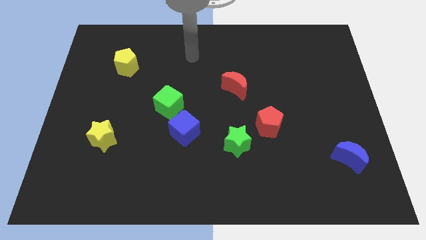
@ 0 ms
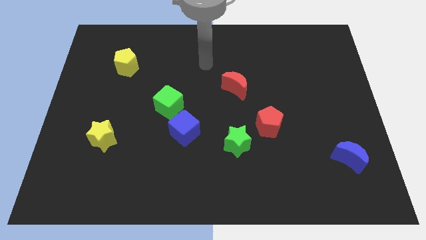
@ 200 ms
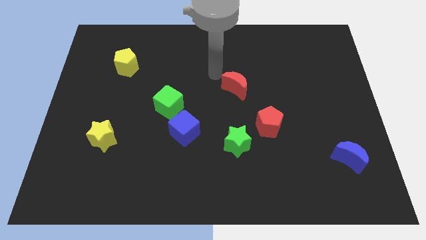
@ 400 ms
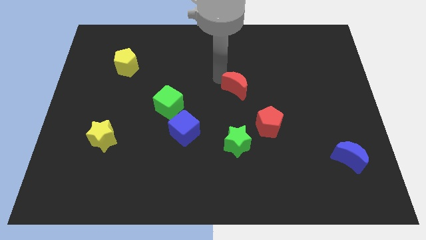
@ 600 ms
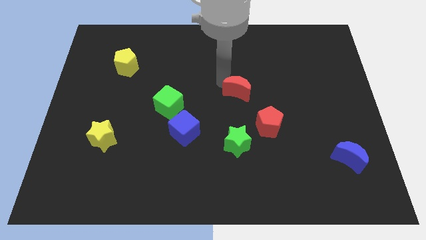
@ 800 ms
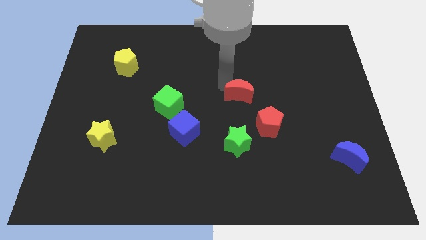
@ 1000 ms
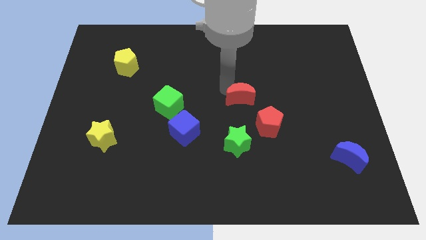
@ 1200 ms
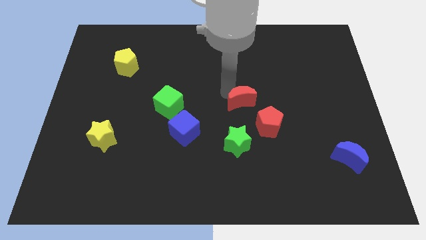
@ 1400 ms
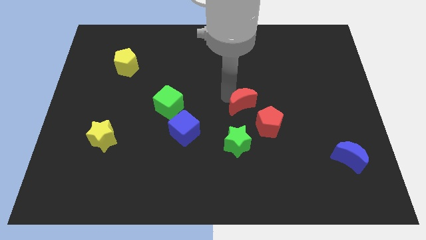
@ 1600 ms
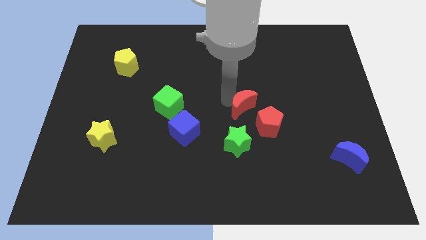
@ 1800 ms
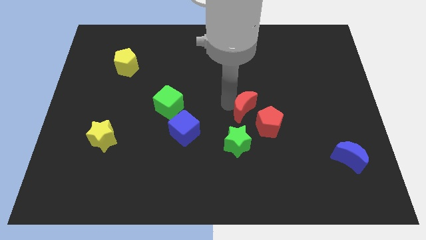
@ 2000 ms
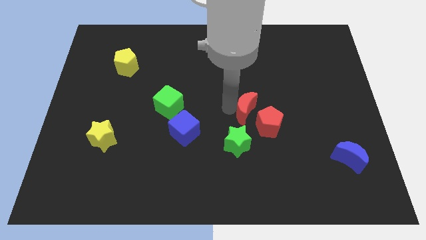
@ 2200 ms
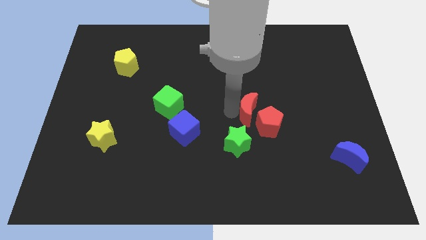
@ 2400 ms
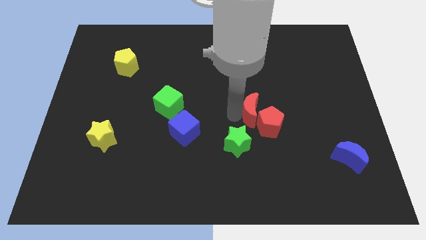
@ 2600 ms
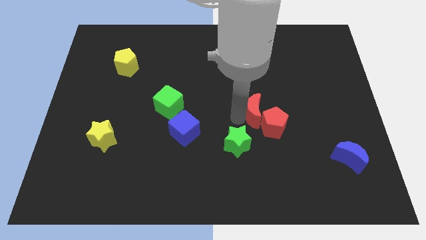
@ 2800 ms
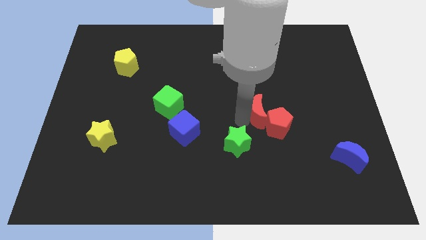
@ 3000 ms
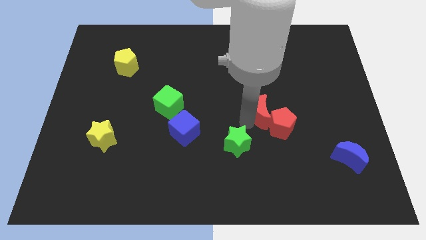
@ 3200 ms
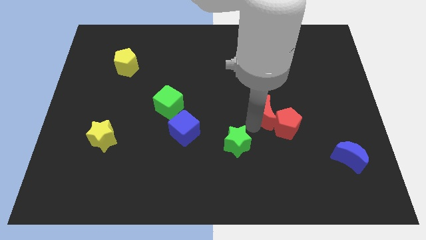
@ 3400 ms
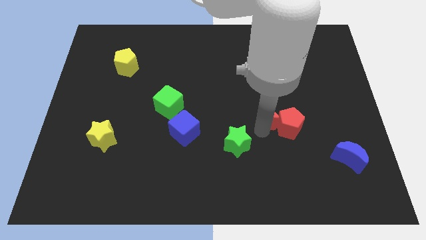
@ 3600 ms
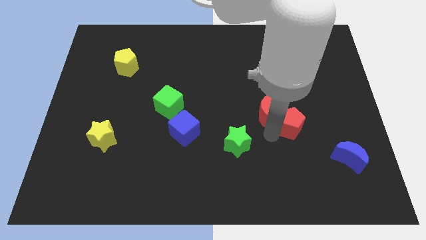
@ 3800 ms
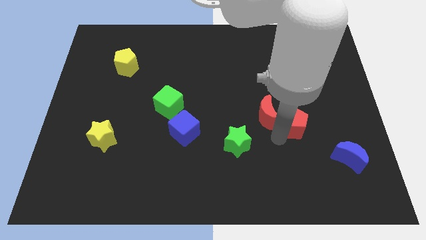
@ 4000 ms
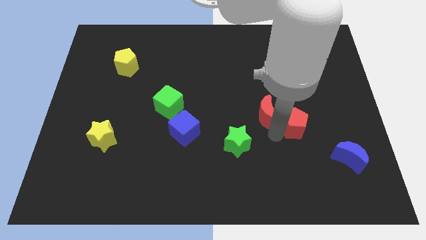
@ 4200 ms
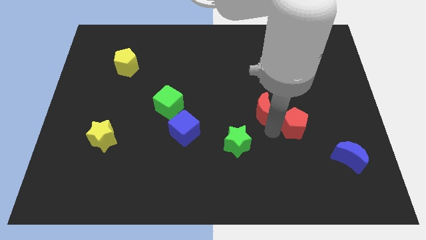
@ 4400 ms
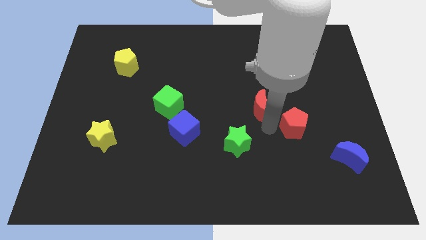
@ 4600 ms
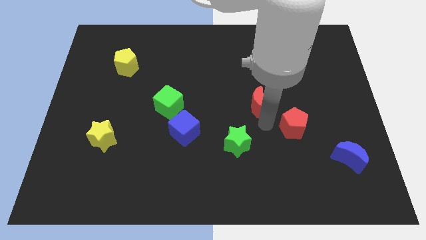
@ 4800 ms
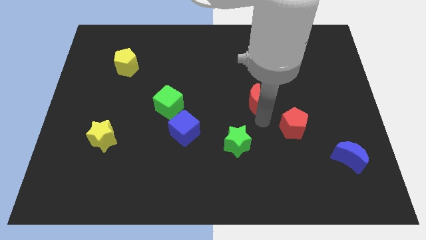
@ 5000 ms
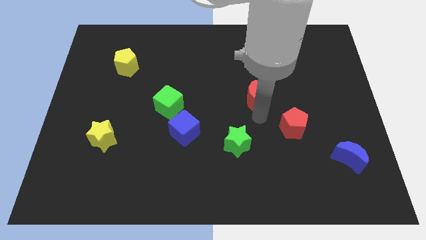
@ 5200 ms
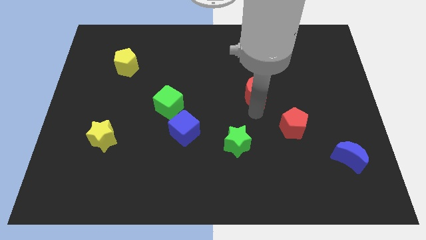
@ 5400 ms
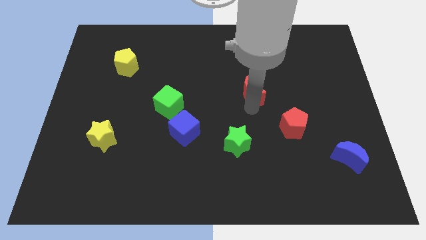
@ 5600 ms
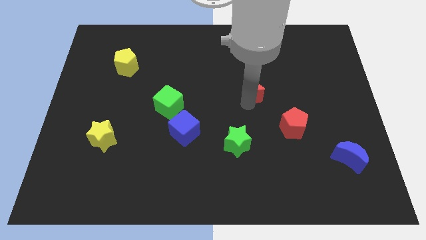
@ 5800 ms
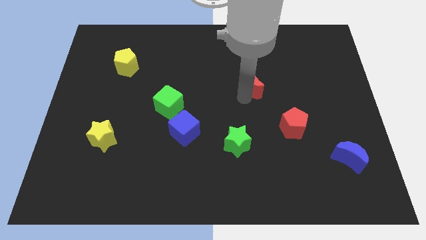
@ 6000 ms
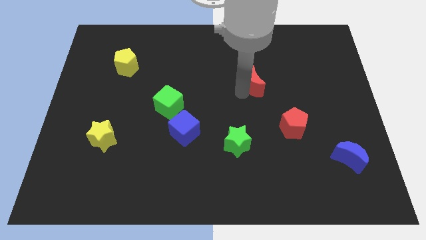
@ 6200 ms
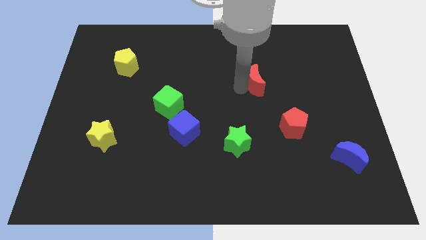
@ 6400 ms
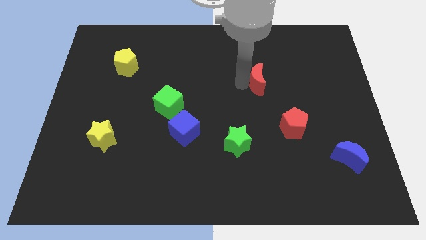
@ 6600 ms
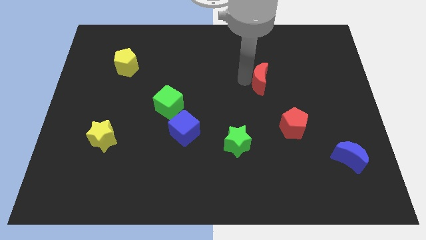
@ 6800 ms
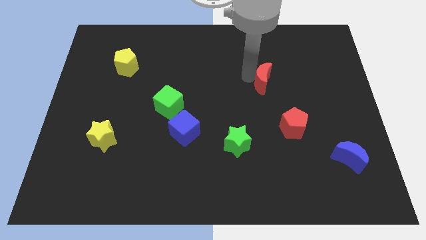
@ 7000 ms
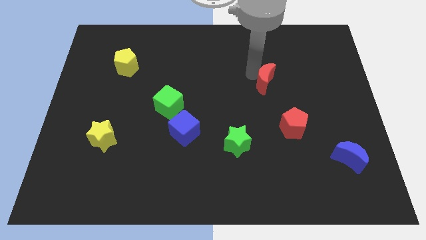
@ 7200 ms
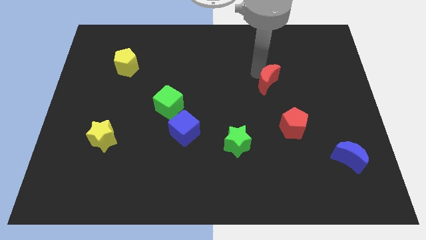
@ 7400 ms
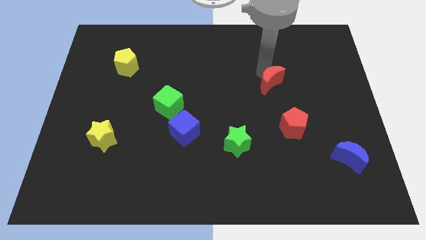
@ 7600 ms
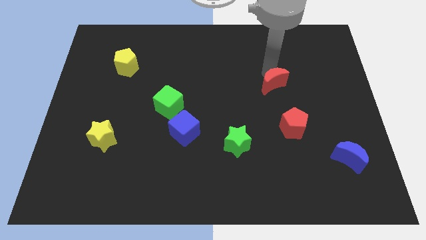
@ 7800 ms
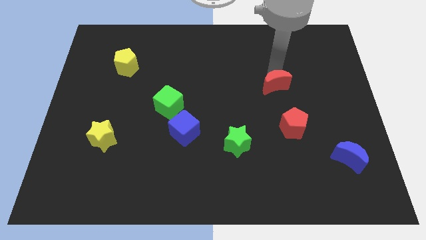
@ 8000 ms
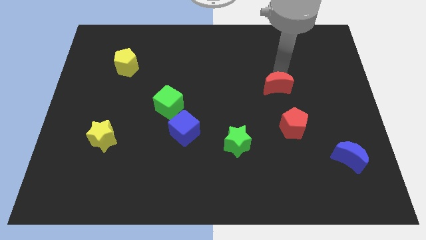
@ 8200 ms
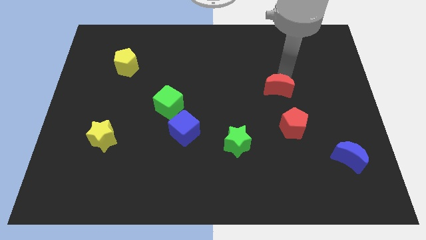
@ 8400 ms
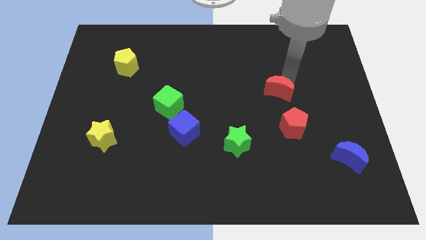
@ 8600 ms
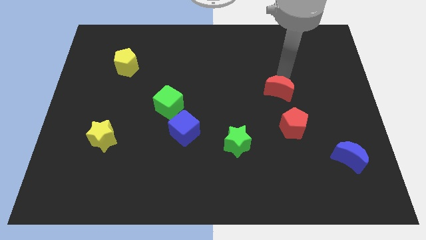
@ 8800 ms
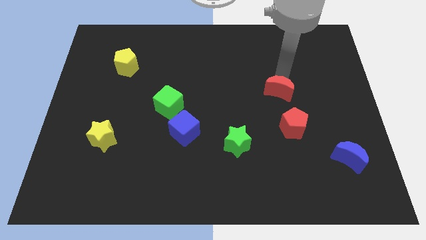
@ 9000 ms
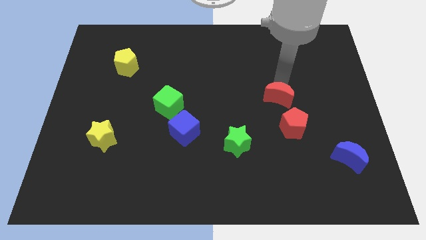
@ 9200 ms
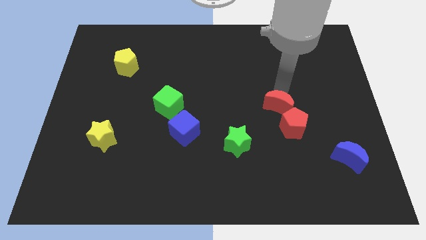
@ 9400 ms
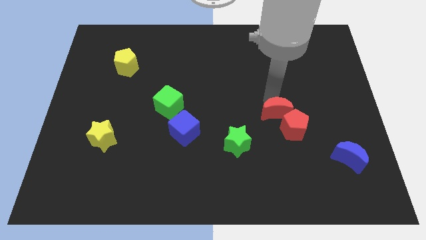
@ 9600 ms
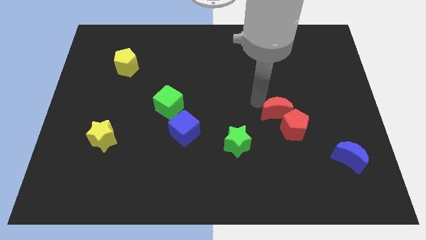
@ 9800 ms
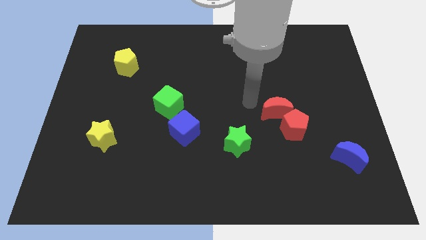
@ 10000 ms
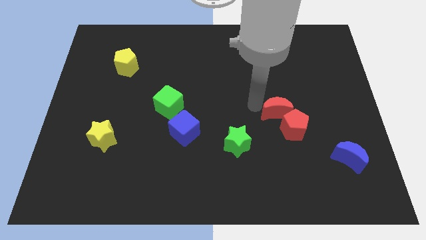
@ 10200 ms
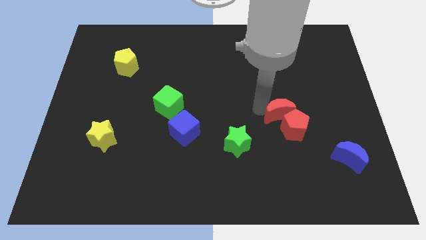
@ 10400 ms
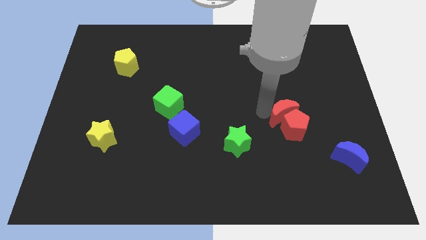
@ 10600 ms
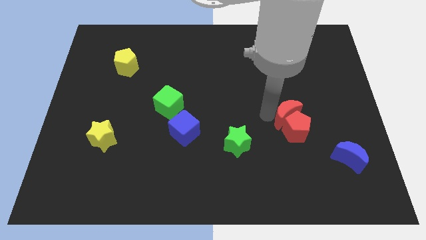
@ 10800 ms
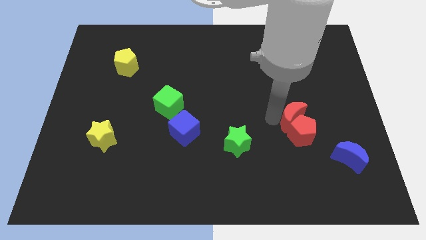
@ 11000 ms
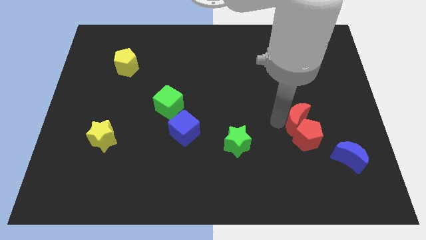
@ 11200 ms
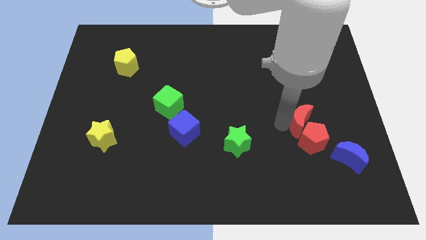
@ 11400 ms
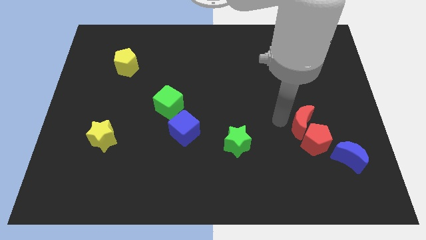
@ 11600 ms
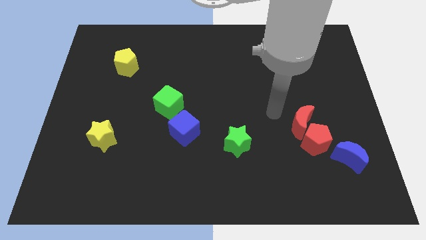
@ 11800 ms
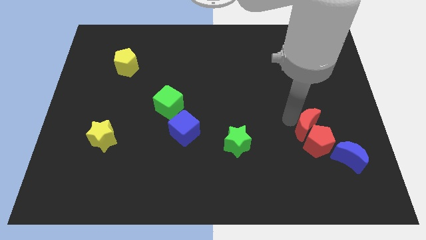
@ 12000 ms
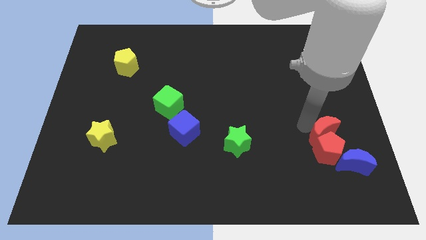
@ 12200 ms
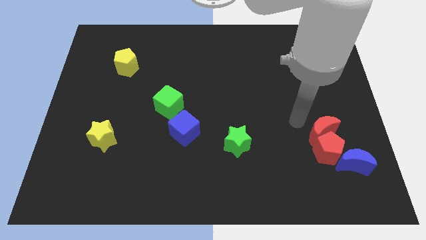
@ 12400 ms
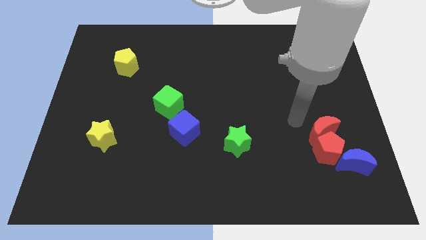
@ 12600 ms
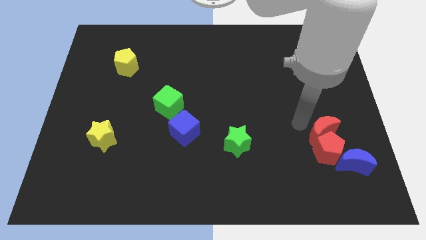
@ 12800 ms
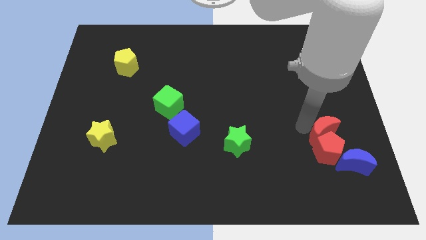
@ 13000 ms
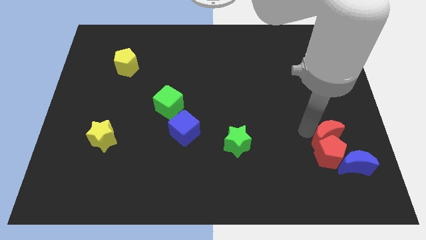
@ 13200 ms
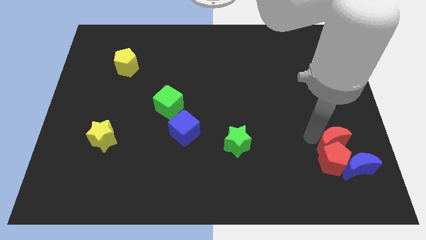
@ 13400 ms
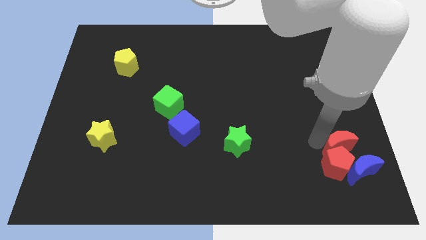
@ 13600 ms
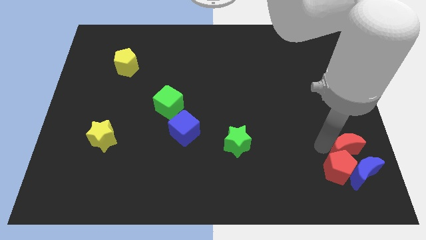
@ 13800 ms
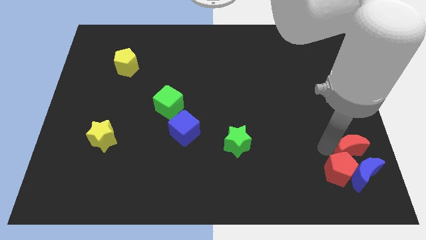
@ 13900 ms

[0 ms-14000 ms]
push the red moon towards the blue moon

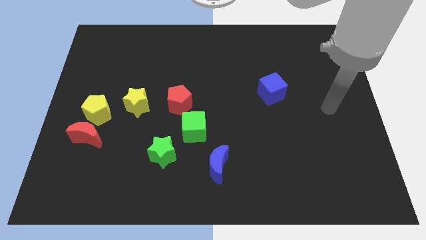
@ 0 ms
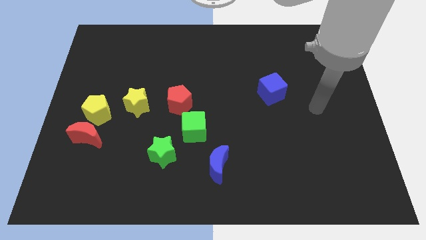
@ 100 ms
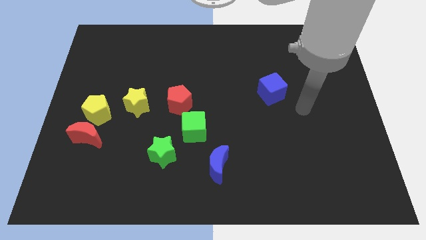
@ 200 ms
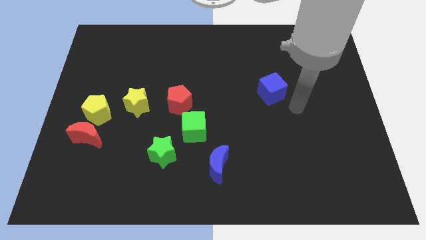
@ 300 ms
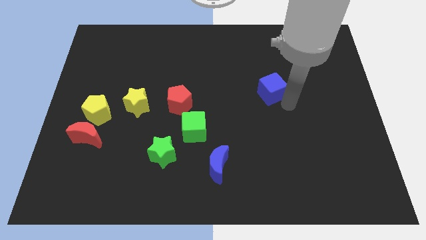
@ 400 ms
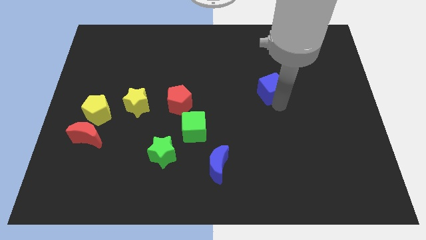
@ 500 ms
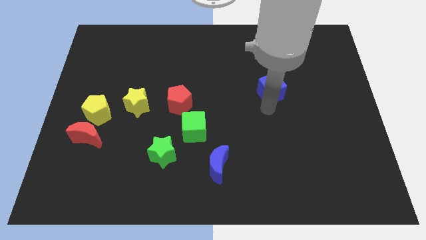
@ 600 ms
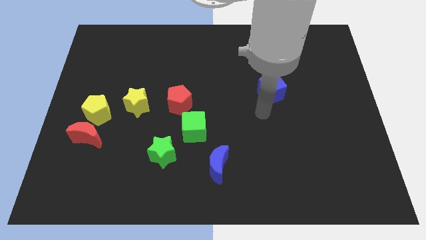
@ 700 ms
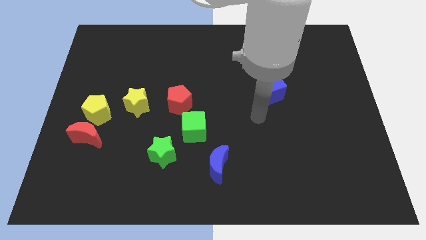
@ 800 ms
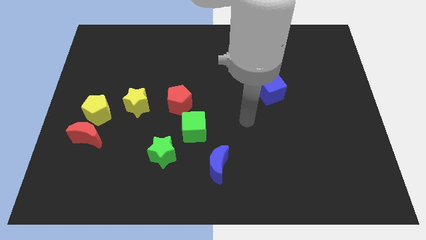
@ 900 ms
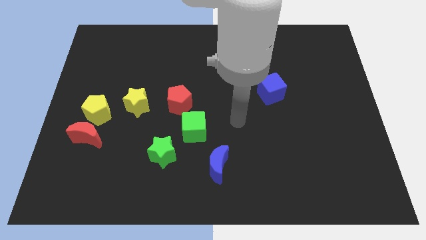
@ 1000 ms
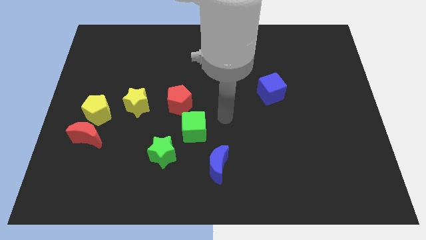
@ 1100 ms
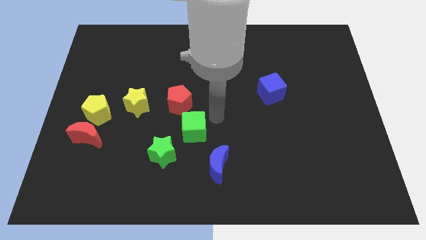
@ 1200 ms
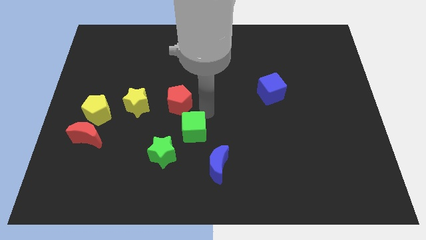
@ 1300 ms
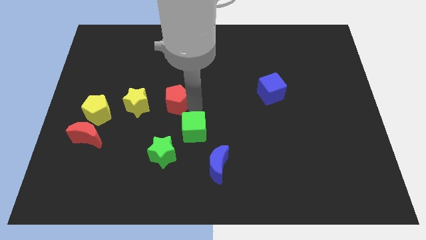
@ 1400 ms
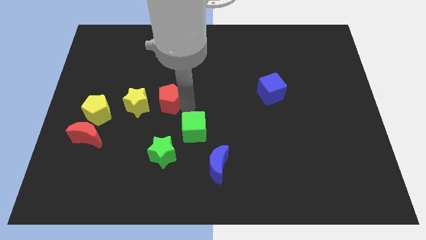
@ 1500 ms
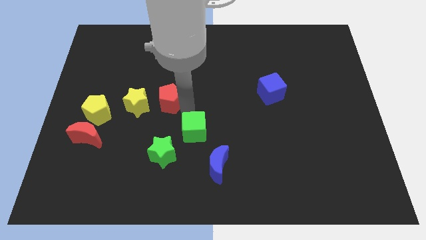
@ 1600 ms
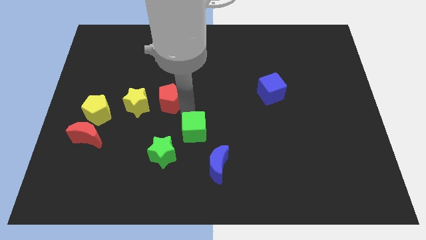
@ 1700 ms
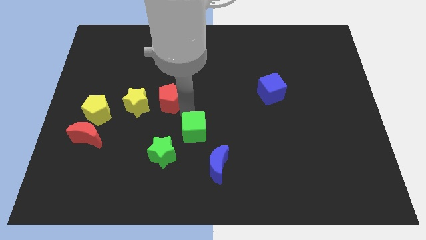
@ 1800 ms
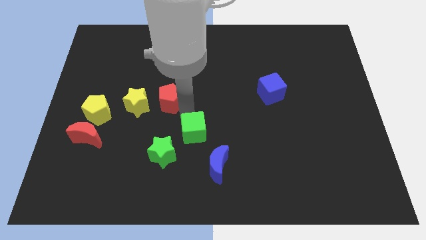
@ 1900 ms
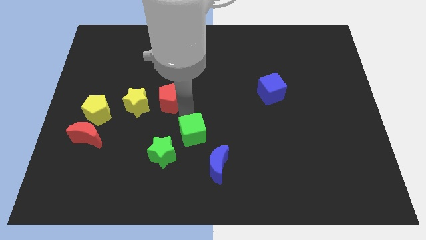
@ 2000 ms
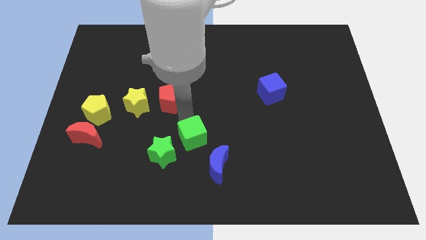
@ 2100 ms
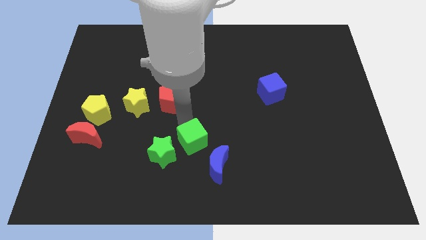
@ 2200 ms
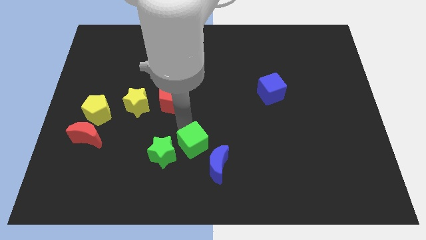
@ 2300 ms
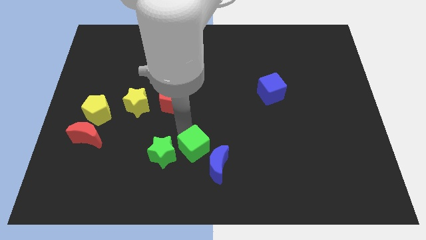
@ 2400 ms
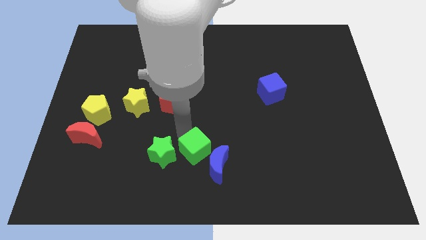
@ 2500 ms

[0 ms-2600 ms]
push the green cube to the blue moon
